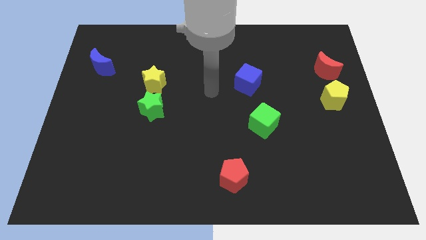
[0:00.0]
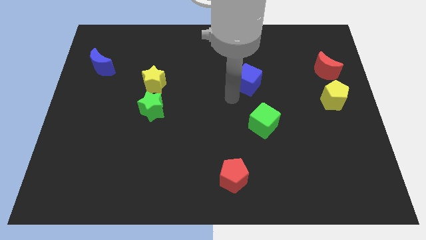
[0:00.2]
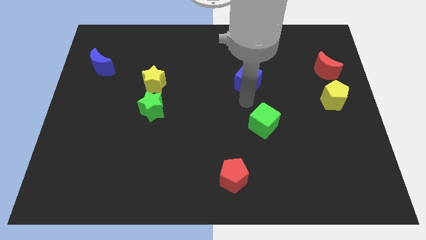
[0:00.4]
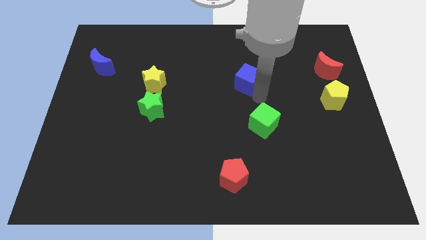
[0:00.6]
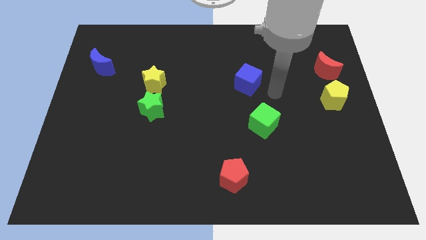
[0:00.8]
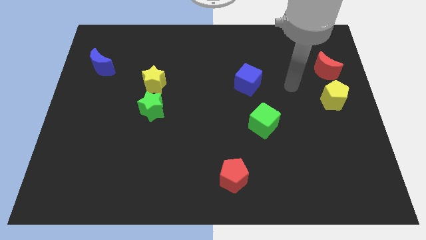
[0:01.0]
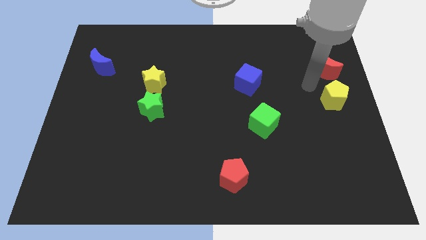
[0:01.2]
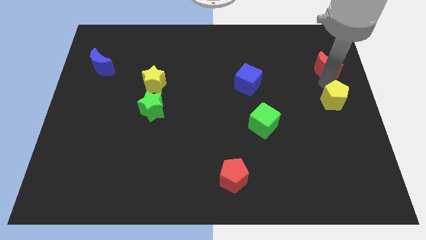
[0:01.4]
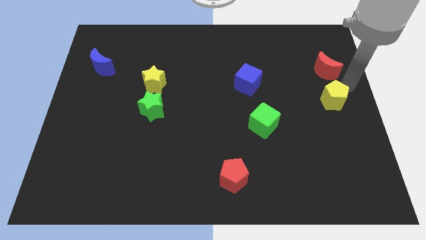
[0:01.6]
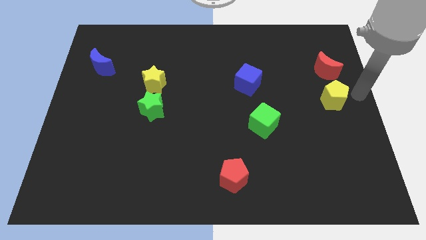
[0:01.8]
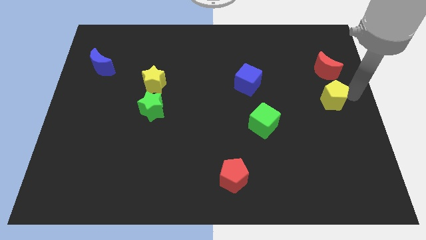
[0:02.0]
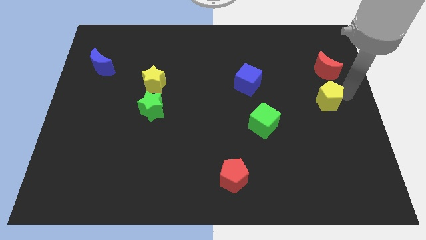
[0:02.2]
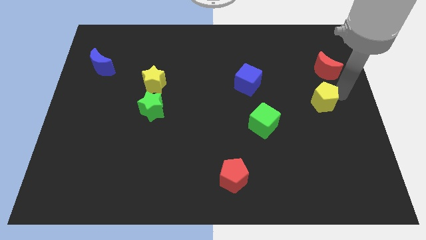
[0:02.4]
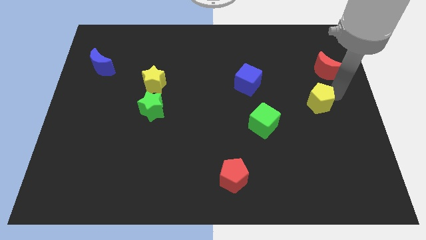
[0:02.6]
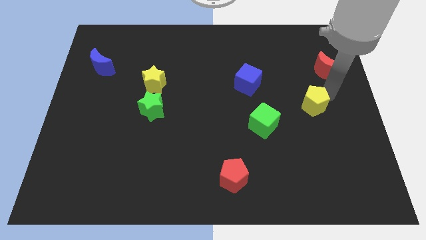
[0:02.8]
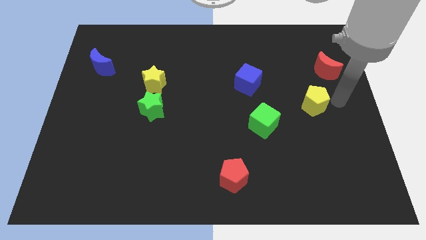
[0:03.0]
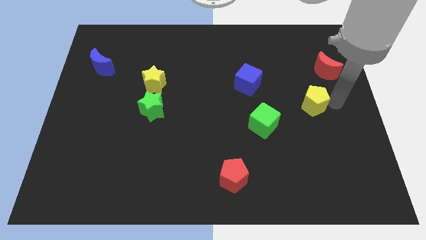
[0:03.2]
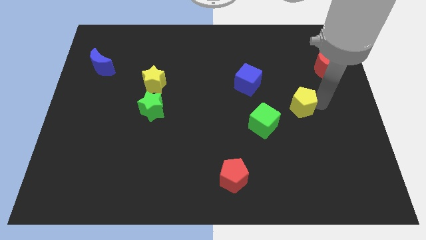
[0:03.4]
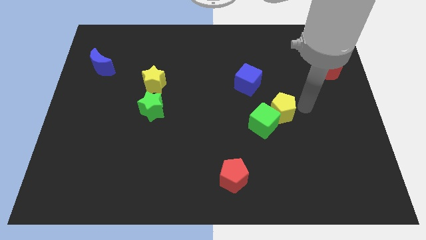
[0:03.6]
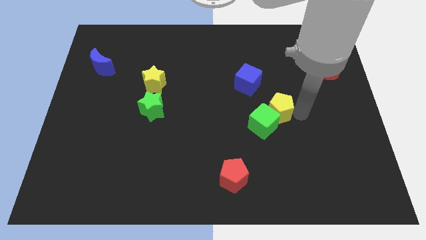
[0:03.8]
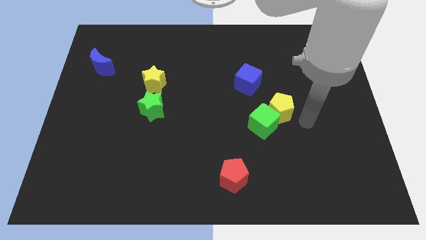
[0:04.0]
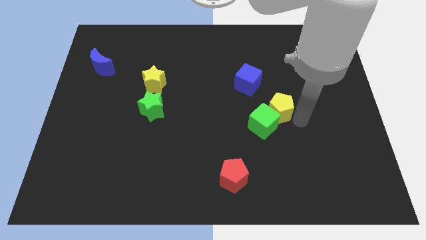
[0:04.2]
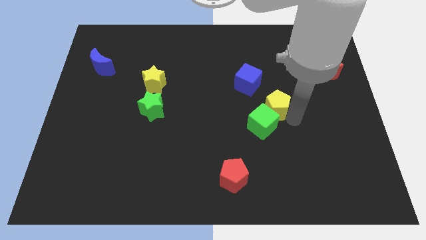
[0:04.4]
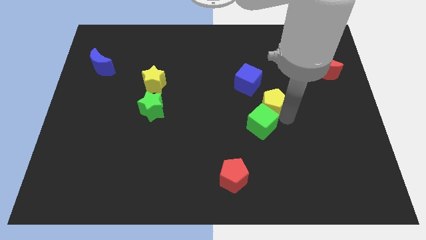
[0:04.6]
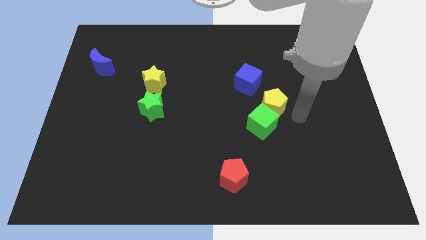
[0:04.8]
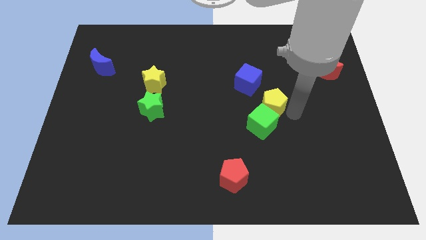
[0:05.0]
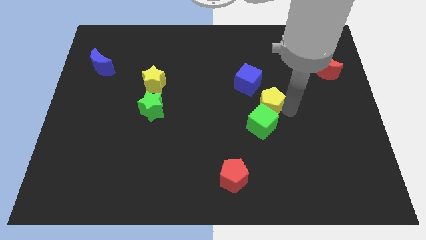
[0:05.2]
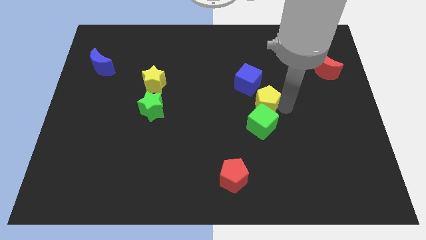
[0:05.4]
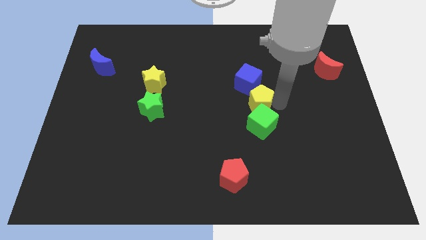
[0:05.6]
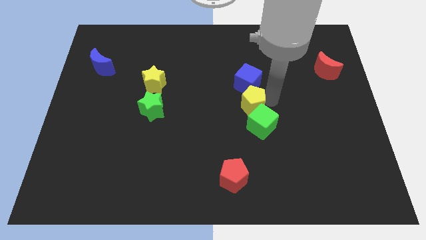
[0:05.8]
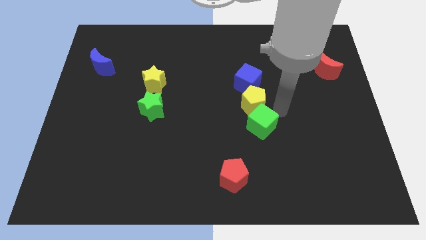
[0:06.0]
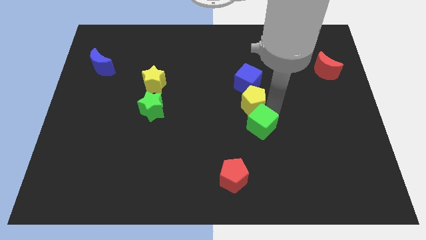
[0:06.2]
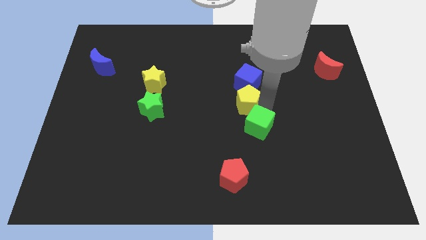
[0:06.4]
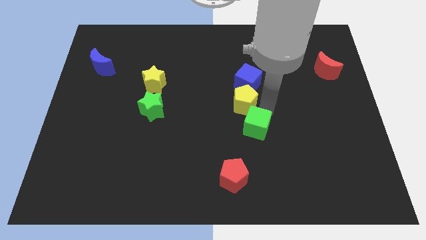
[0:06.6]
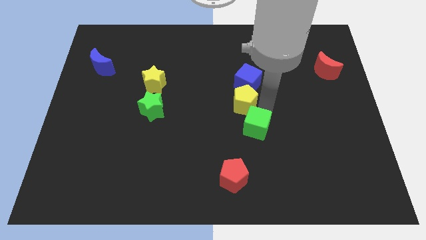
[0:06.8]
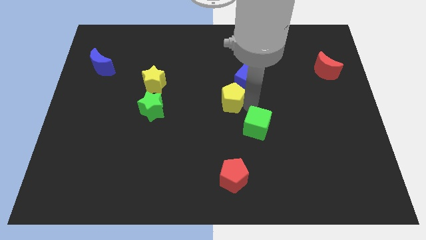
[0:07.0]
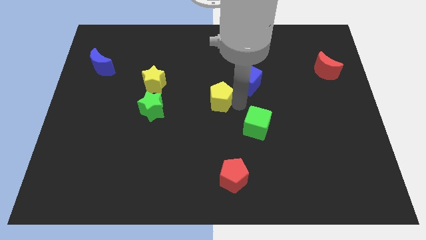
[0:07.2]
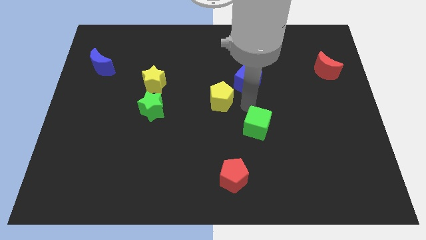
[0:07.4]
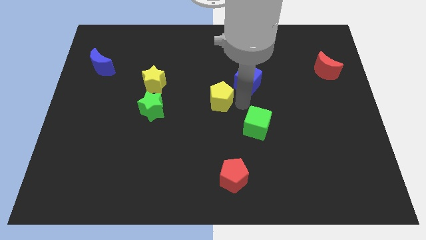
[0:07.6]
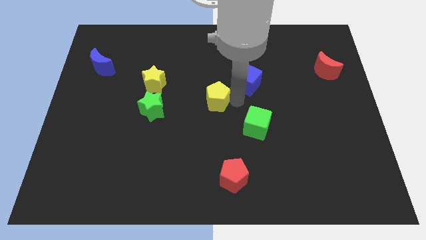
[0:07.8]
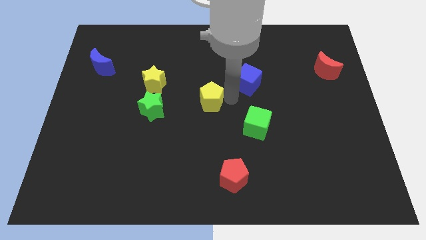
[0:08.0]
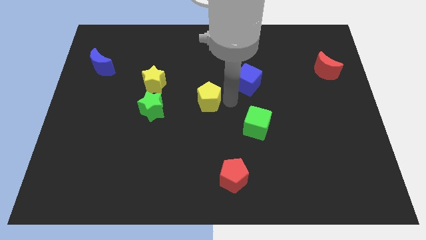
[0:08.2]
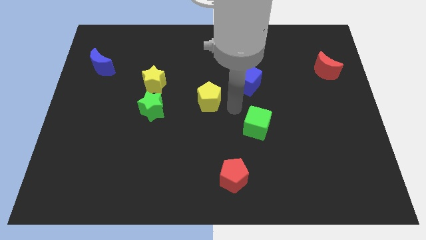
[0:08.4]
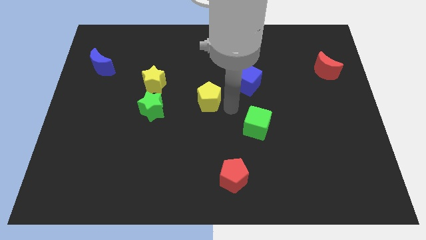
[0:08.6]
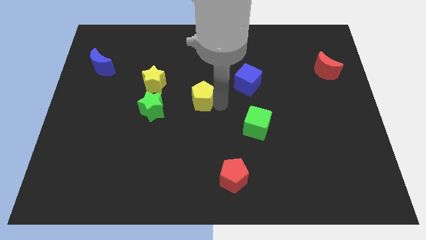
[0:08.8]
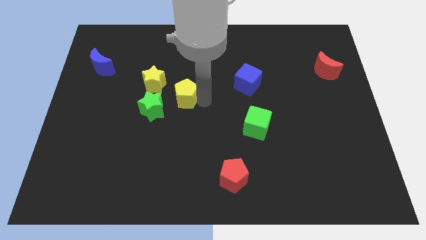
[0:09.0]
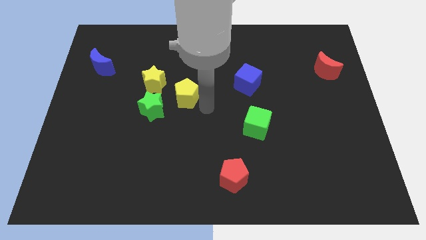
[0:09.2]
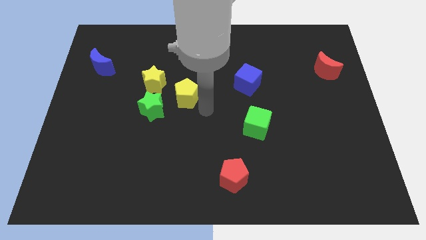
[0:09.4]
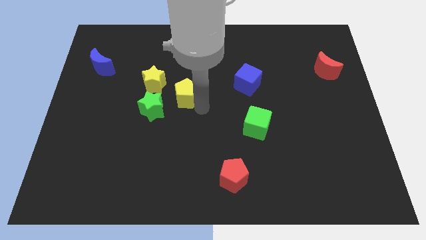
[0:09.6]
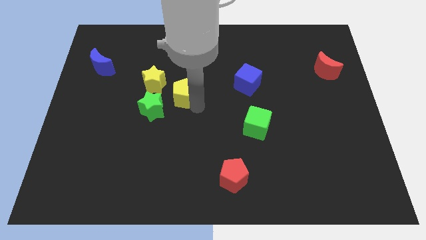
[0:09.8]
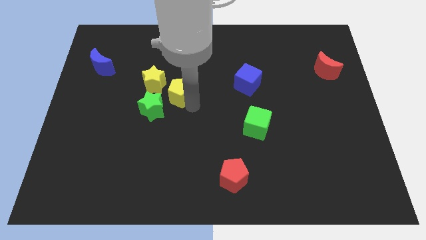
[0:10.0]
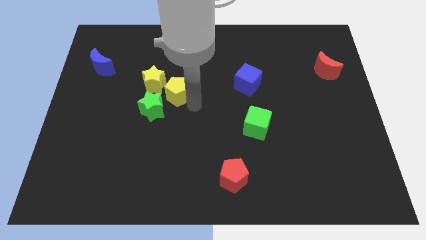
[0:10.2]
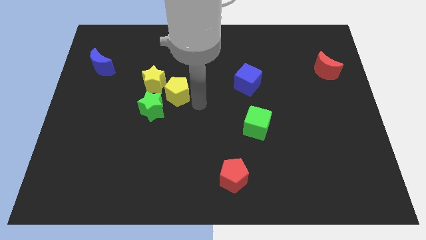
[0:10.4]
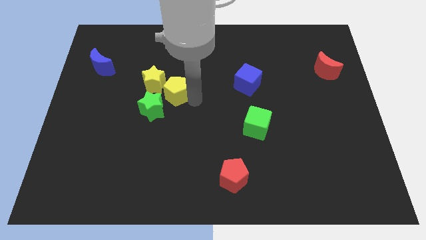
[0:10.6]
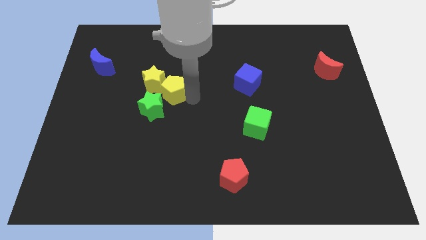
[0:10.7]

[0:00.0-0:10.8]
push the yellow pentagon to the yellow star

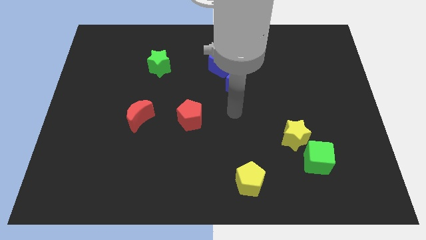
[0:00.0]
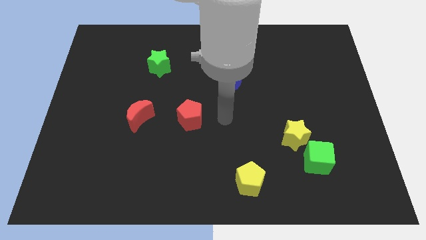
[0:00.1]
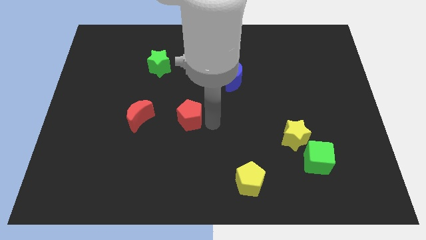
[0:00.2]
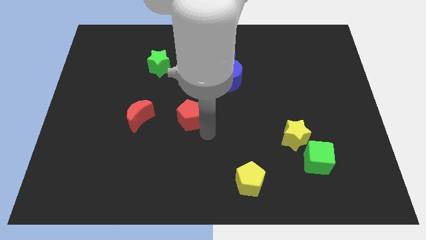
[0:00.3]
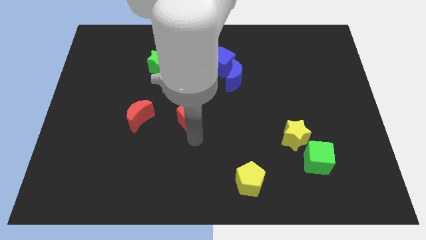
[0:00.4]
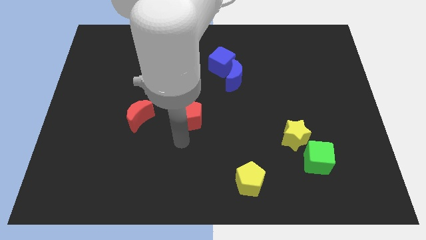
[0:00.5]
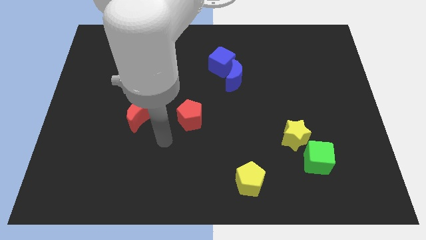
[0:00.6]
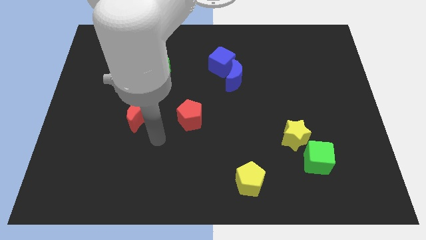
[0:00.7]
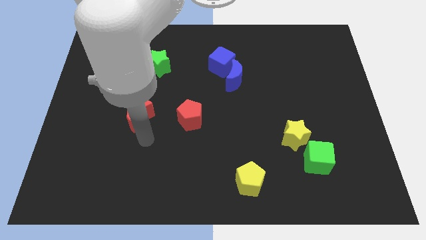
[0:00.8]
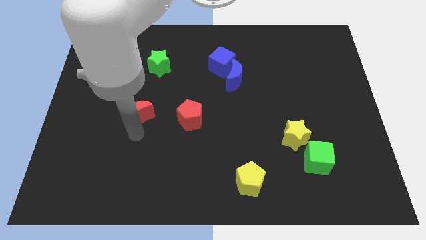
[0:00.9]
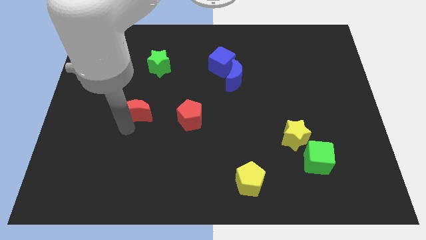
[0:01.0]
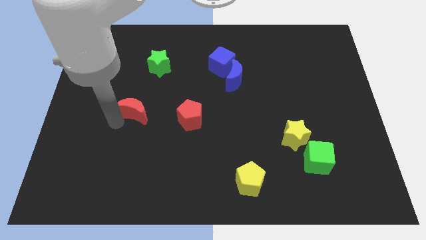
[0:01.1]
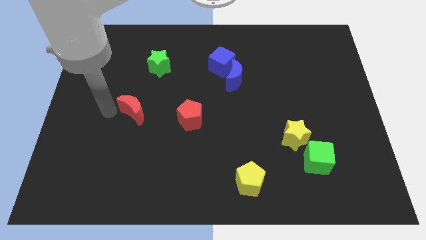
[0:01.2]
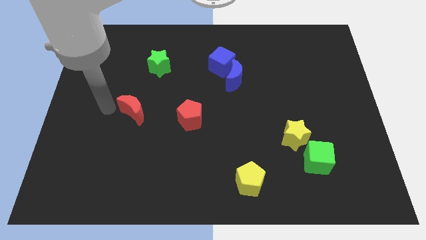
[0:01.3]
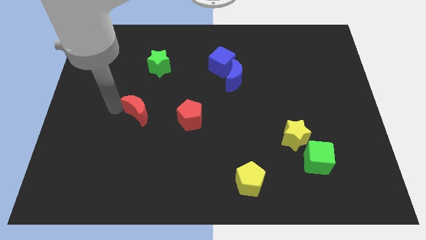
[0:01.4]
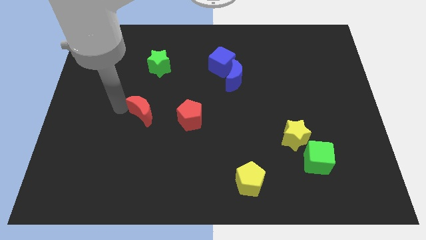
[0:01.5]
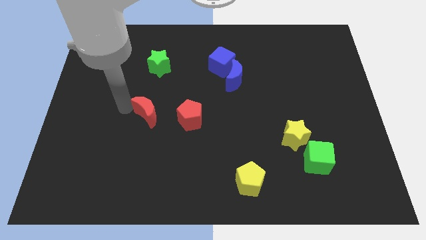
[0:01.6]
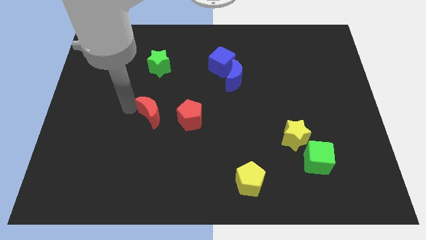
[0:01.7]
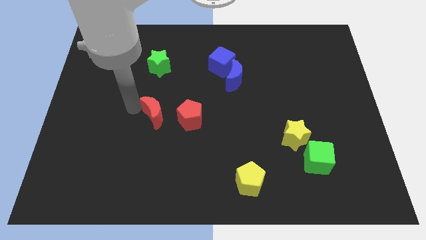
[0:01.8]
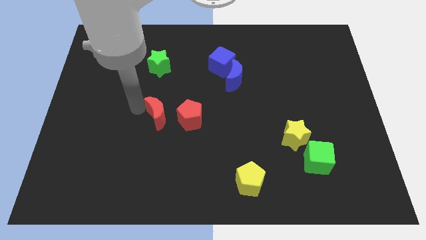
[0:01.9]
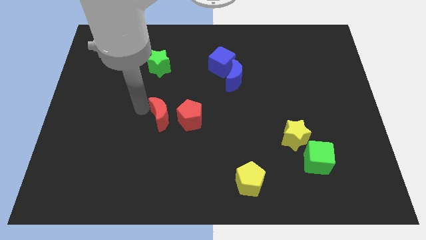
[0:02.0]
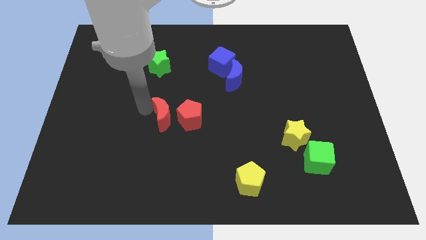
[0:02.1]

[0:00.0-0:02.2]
slide the red moon next to the red pentagon
